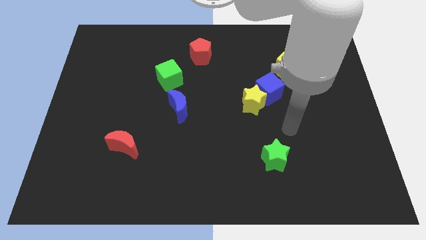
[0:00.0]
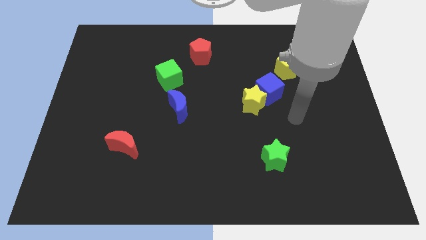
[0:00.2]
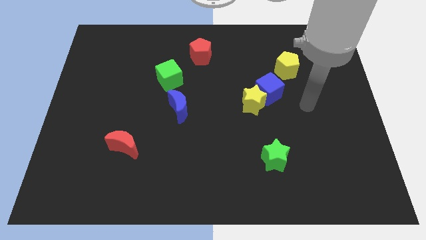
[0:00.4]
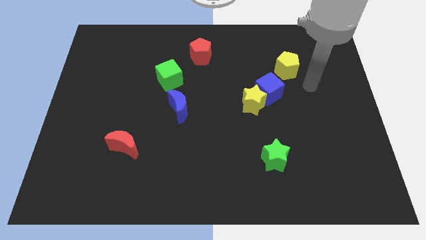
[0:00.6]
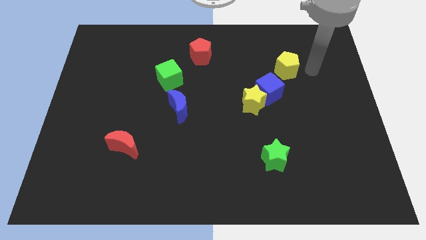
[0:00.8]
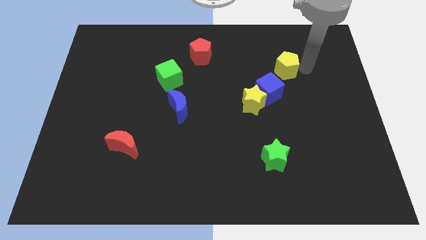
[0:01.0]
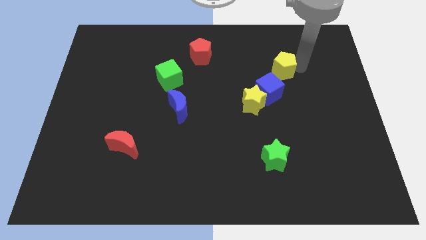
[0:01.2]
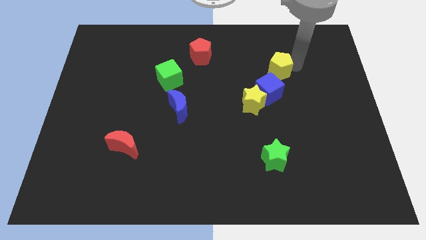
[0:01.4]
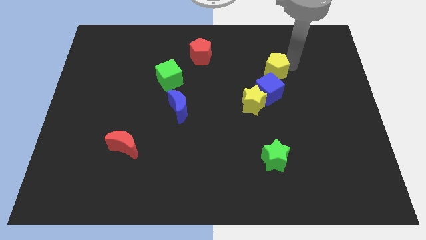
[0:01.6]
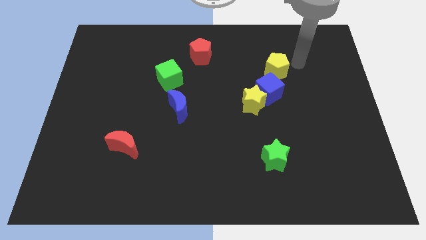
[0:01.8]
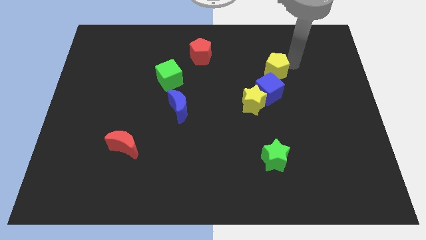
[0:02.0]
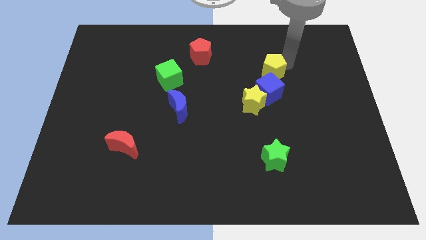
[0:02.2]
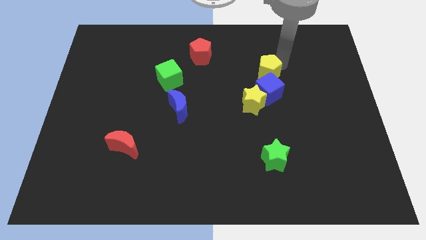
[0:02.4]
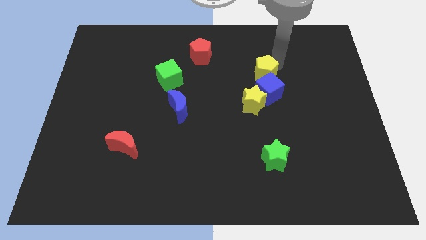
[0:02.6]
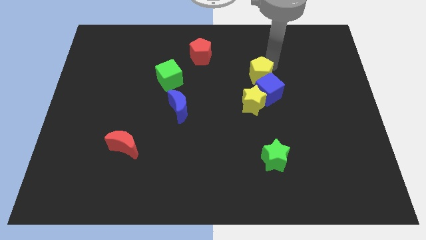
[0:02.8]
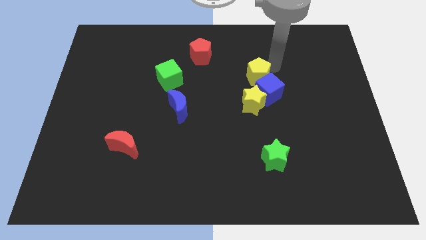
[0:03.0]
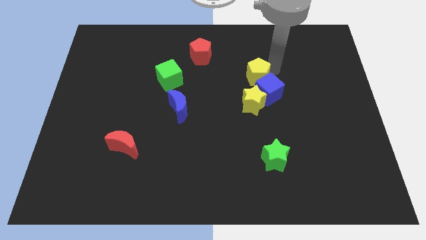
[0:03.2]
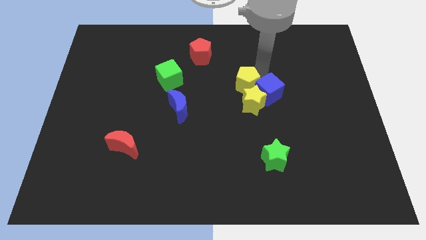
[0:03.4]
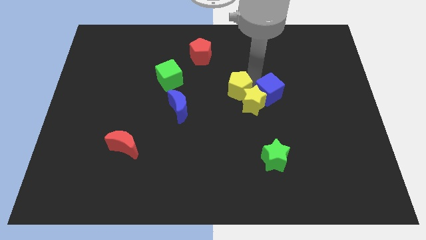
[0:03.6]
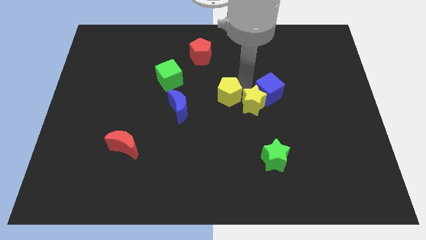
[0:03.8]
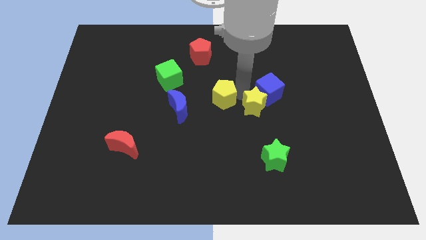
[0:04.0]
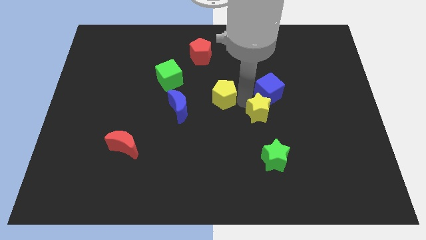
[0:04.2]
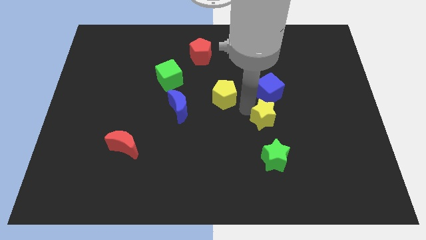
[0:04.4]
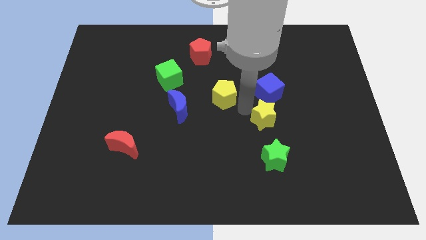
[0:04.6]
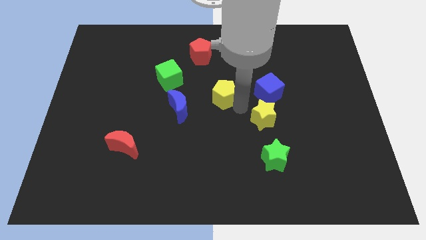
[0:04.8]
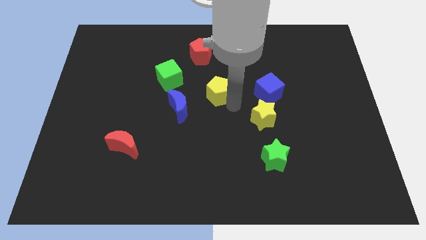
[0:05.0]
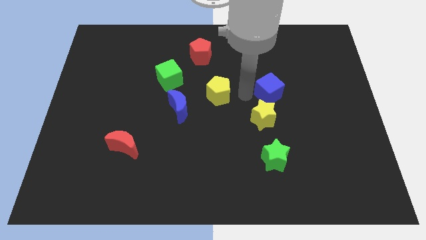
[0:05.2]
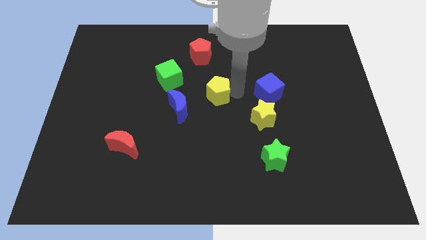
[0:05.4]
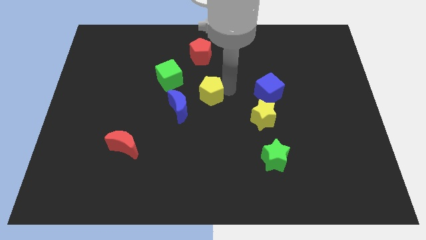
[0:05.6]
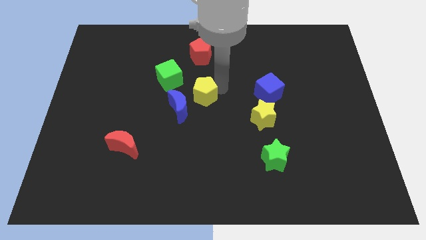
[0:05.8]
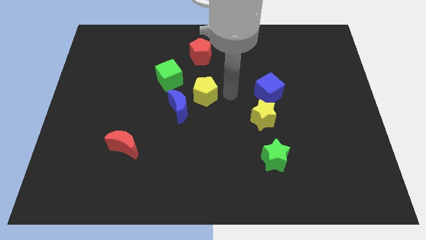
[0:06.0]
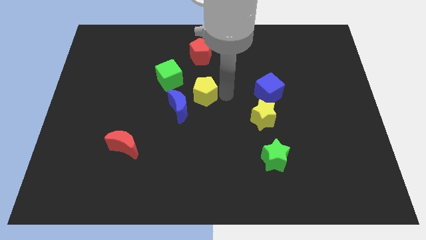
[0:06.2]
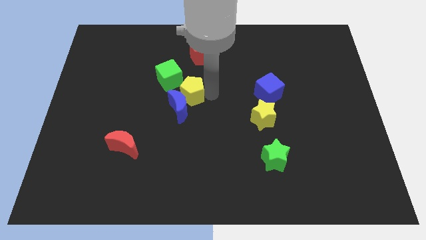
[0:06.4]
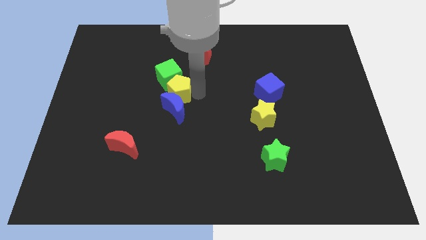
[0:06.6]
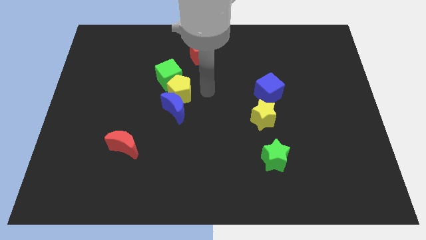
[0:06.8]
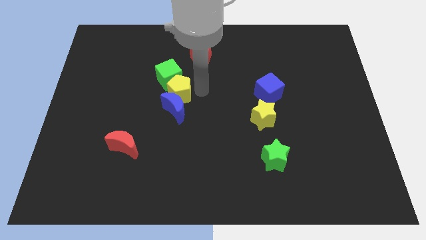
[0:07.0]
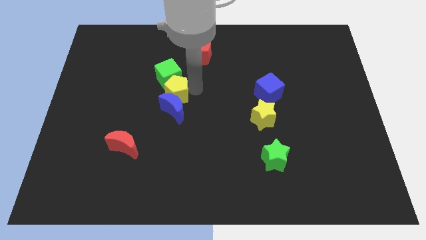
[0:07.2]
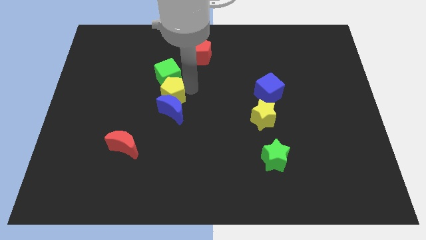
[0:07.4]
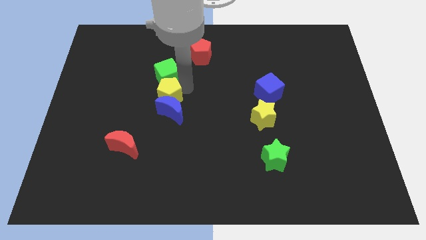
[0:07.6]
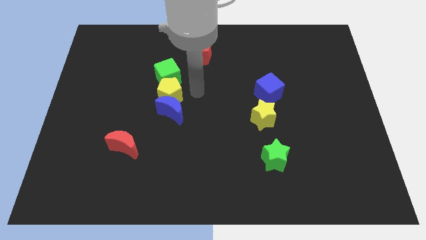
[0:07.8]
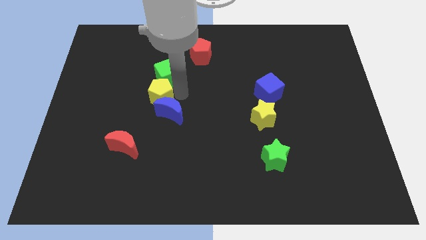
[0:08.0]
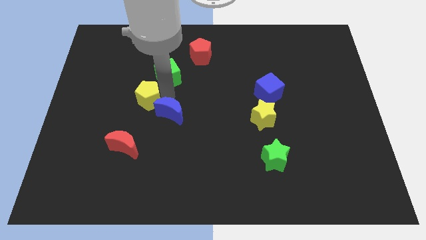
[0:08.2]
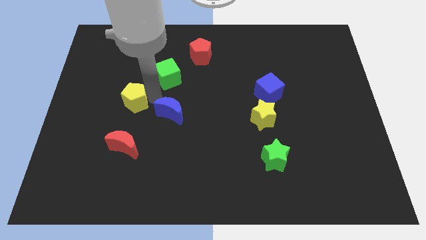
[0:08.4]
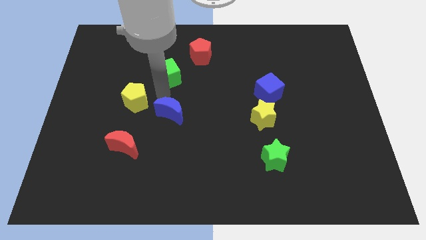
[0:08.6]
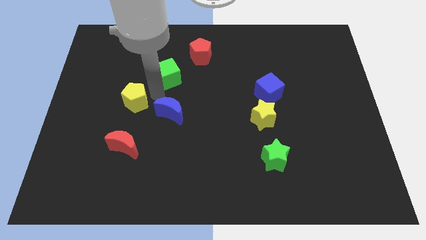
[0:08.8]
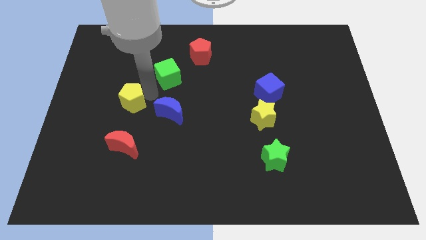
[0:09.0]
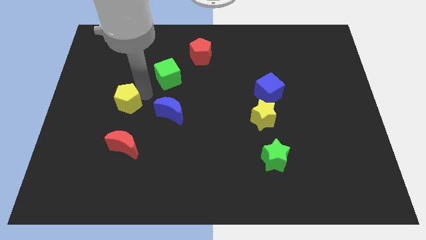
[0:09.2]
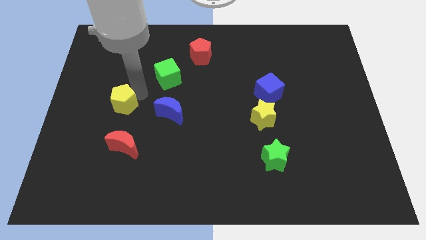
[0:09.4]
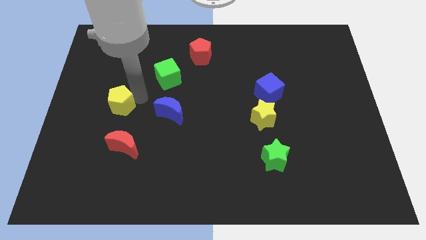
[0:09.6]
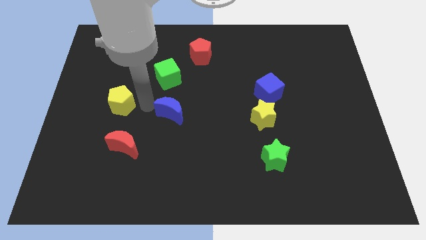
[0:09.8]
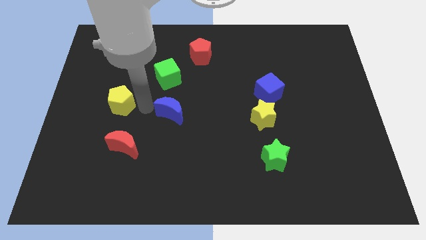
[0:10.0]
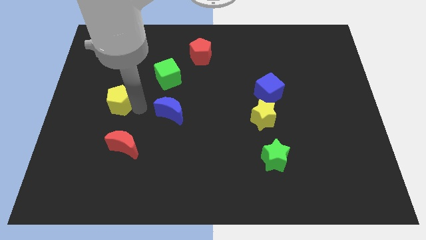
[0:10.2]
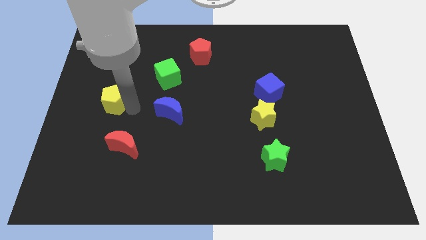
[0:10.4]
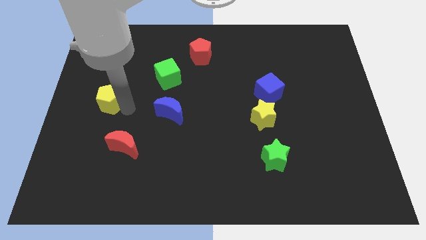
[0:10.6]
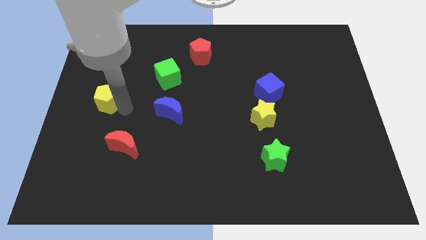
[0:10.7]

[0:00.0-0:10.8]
slide the yellow pentagon to the center left

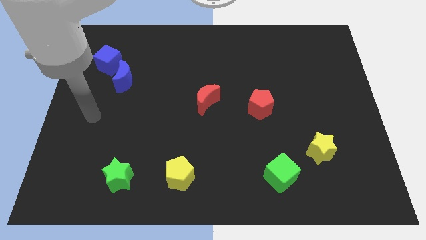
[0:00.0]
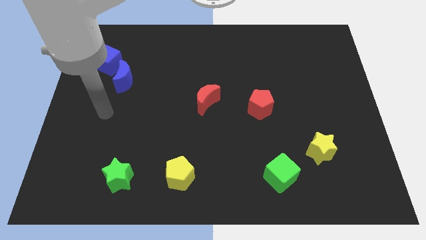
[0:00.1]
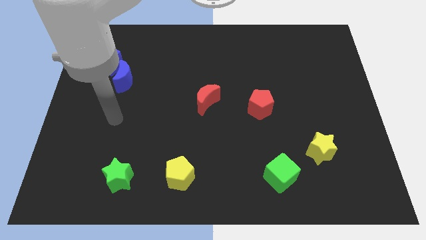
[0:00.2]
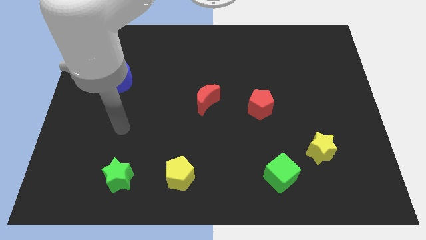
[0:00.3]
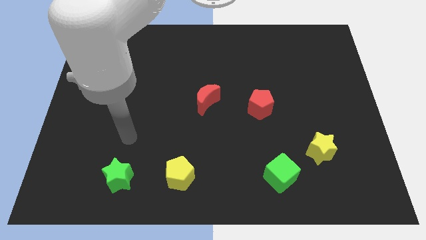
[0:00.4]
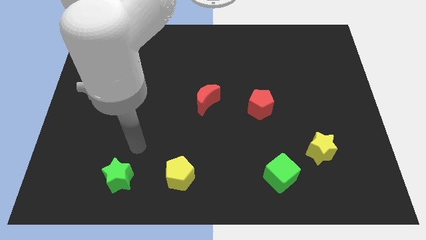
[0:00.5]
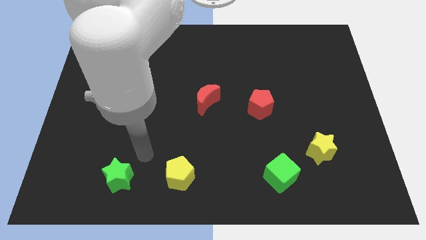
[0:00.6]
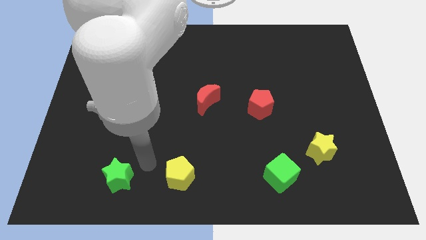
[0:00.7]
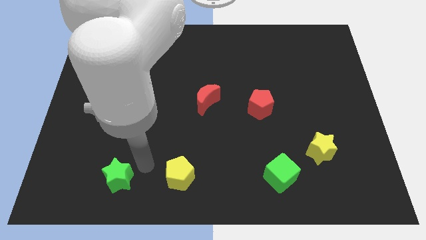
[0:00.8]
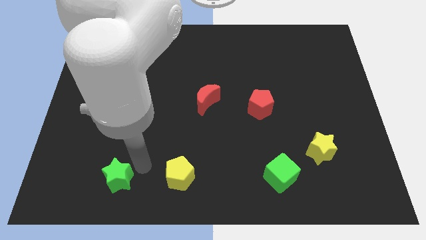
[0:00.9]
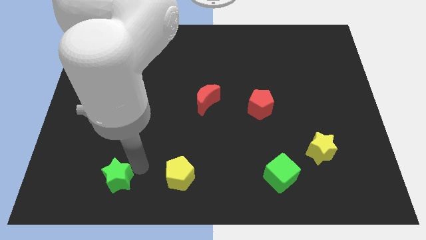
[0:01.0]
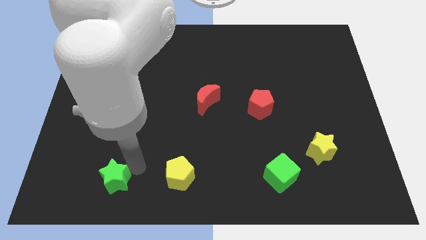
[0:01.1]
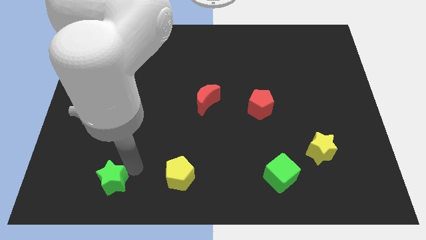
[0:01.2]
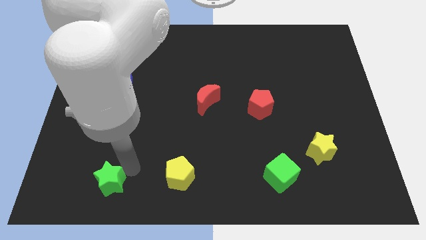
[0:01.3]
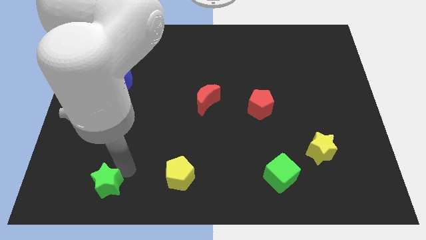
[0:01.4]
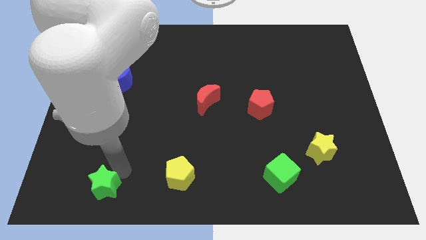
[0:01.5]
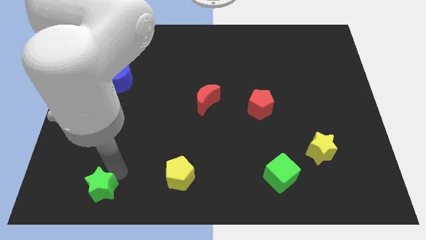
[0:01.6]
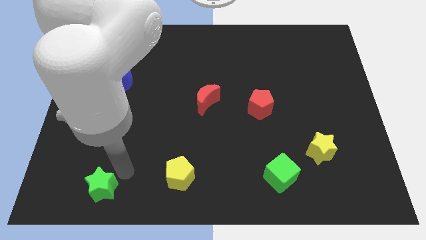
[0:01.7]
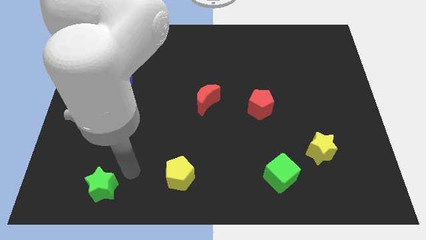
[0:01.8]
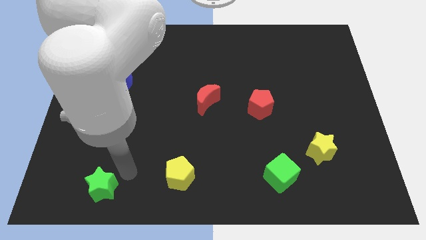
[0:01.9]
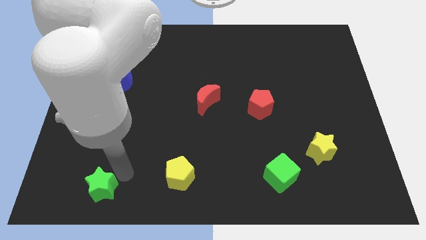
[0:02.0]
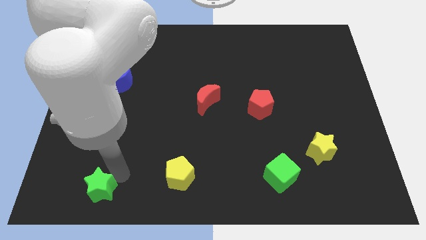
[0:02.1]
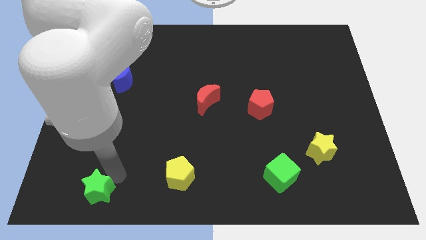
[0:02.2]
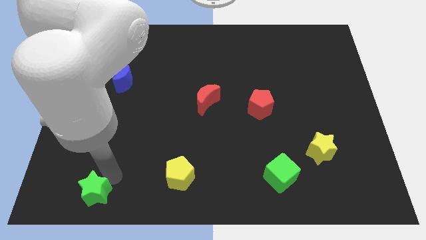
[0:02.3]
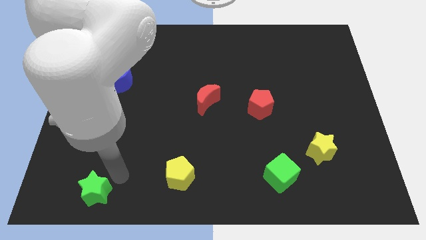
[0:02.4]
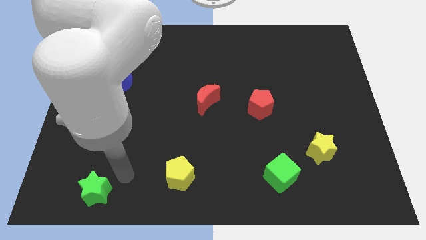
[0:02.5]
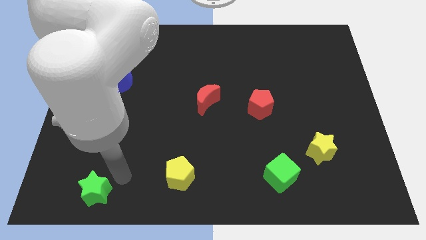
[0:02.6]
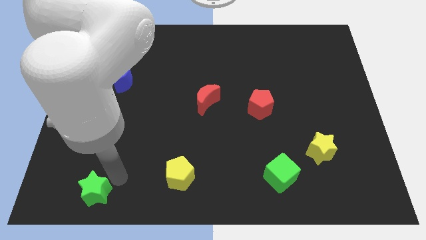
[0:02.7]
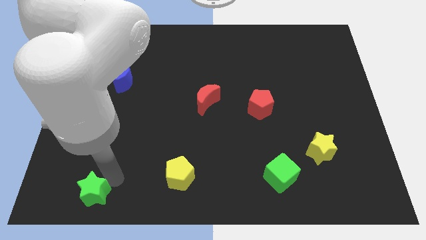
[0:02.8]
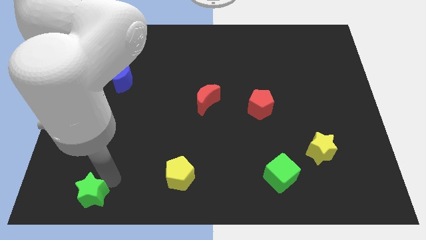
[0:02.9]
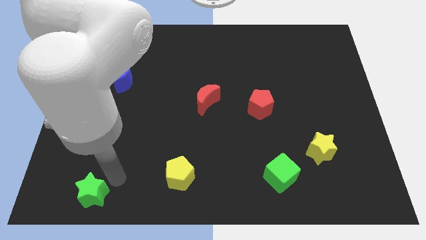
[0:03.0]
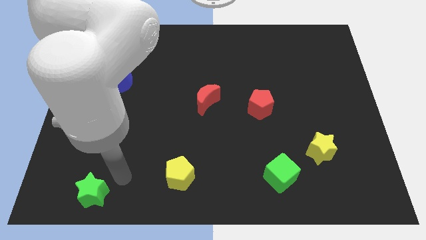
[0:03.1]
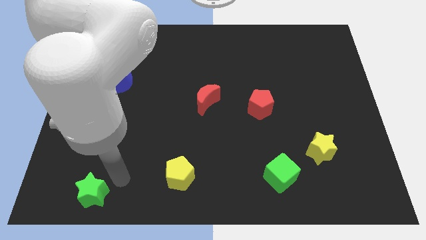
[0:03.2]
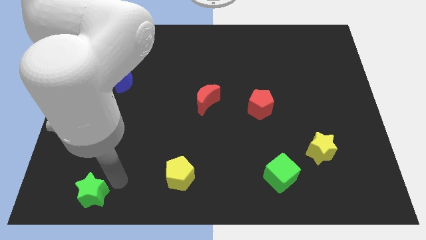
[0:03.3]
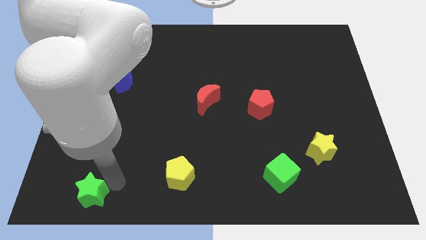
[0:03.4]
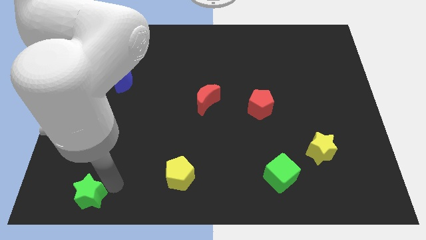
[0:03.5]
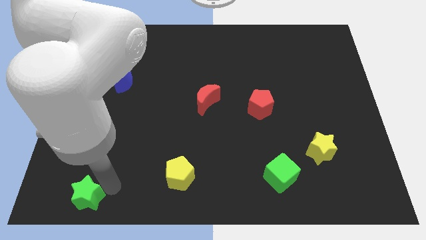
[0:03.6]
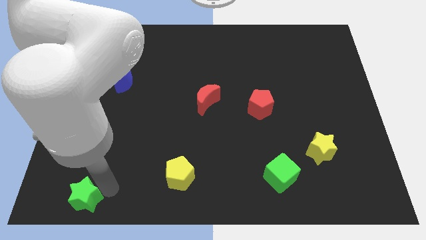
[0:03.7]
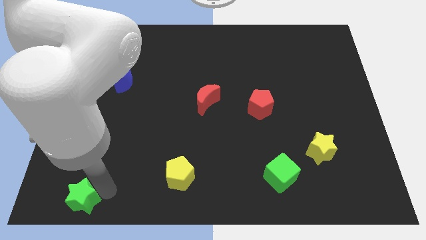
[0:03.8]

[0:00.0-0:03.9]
slide the green star to the bottom left corner
